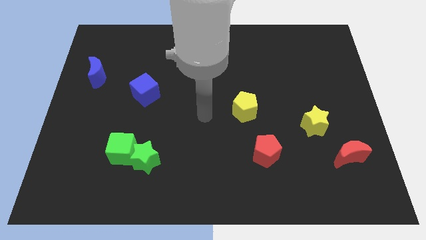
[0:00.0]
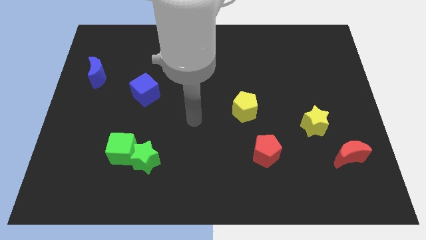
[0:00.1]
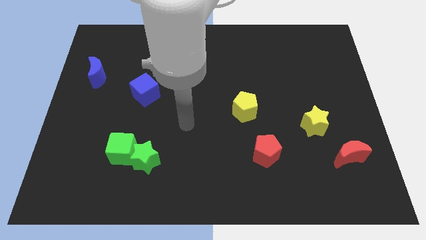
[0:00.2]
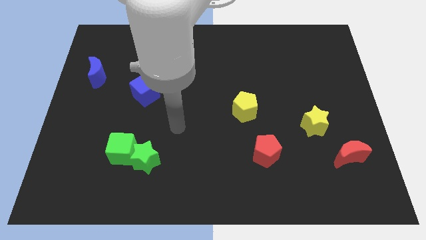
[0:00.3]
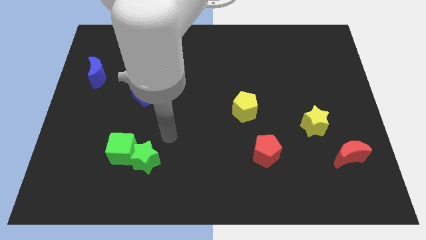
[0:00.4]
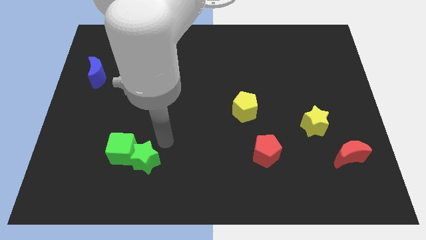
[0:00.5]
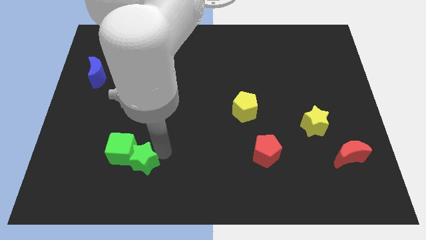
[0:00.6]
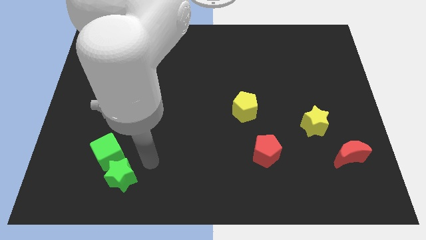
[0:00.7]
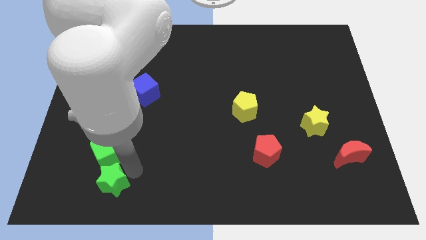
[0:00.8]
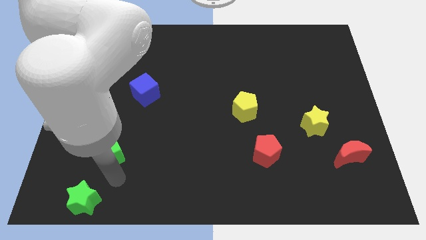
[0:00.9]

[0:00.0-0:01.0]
move the green cube away from the green star

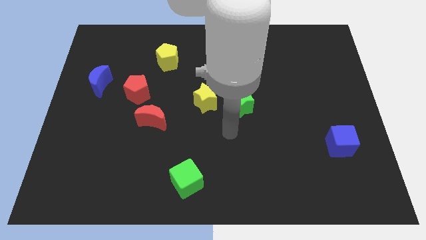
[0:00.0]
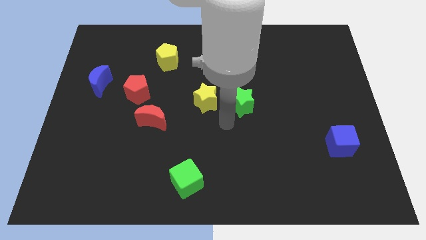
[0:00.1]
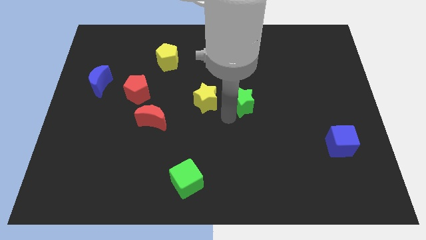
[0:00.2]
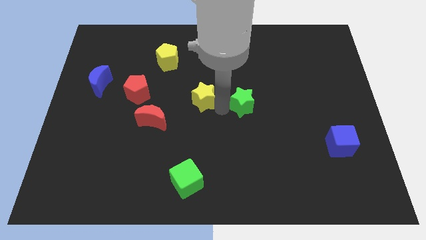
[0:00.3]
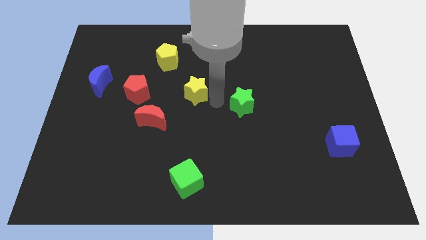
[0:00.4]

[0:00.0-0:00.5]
move the green star away from the yellow star

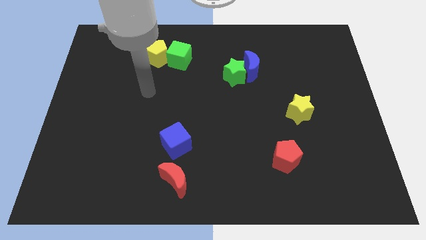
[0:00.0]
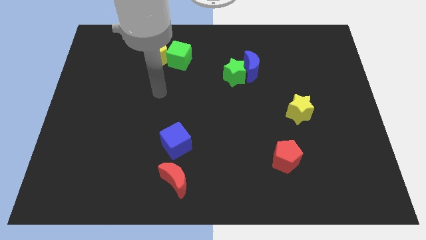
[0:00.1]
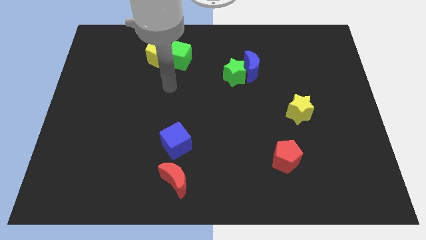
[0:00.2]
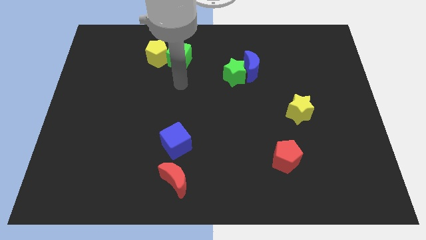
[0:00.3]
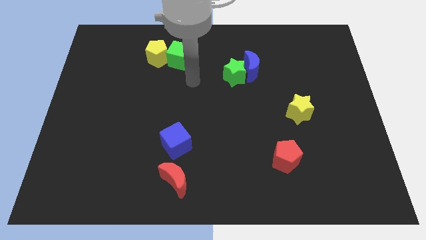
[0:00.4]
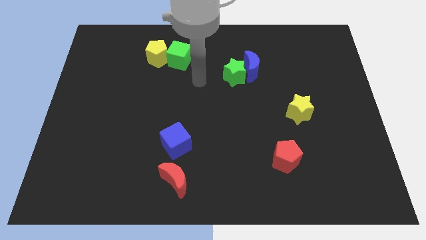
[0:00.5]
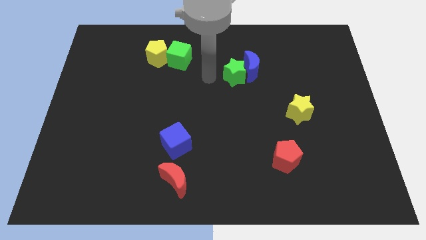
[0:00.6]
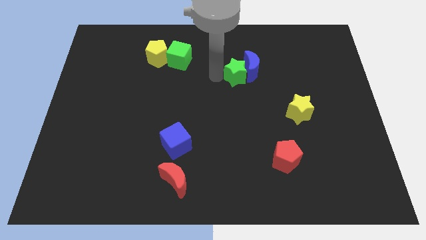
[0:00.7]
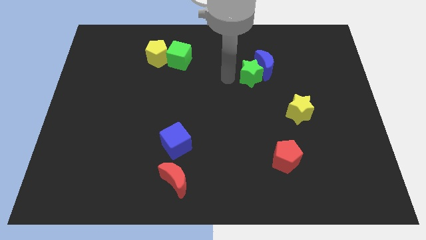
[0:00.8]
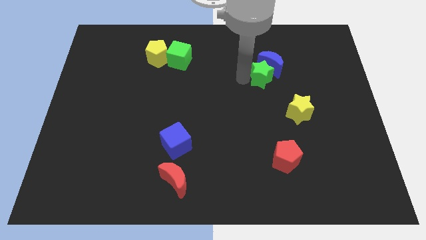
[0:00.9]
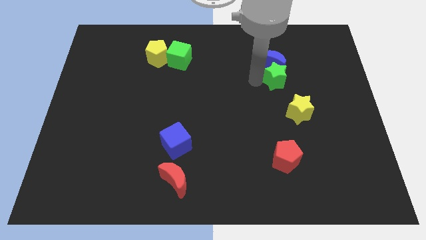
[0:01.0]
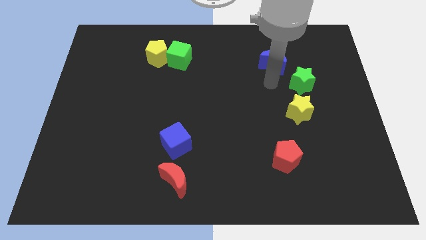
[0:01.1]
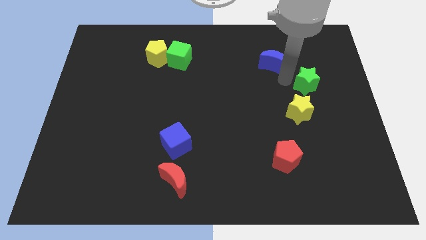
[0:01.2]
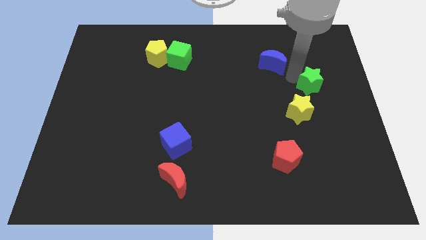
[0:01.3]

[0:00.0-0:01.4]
separate the blue moon from the green star

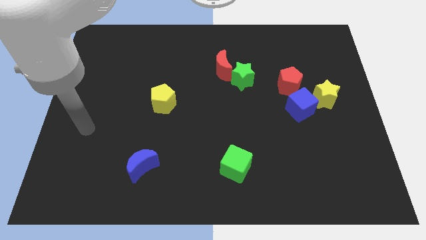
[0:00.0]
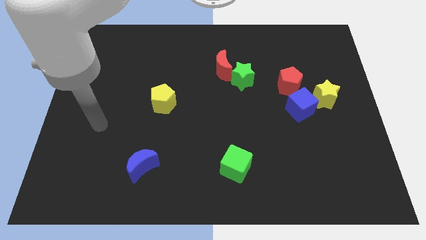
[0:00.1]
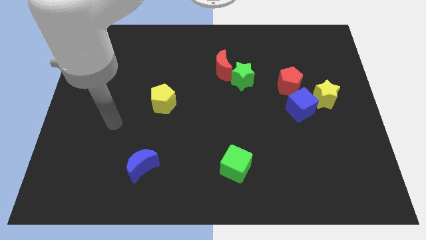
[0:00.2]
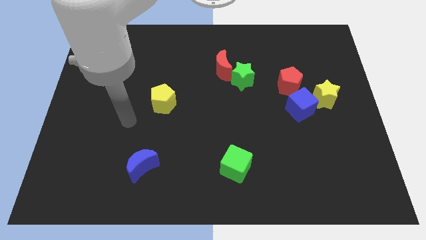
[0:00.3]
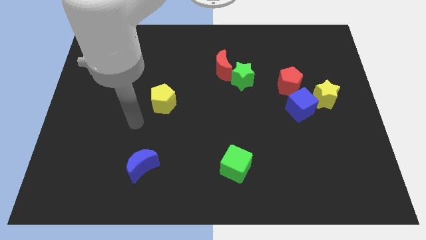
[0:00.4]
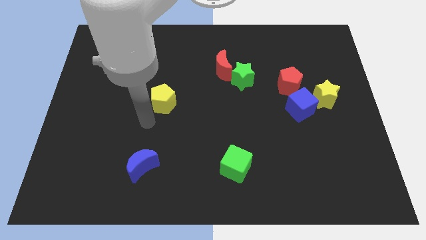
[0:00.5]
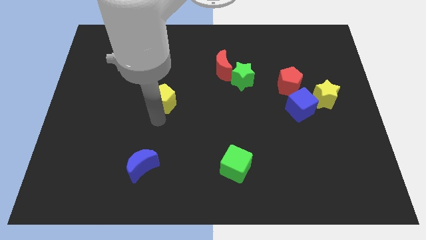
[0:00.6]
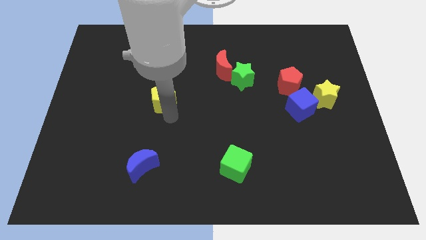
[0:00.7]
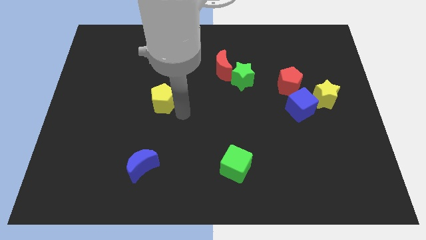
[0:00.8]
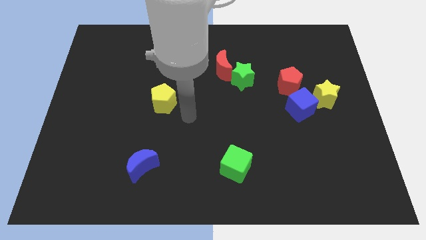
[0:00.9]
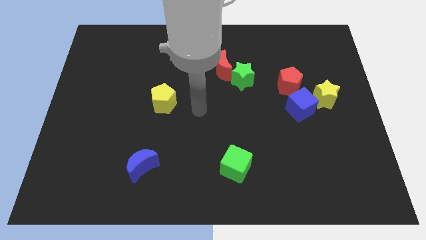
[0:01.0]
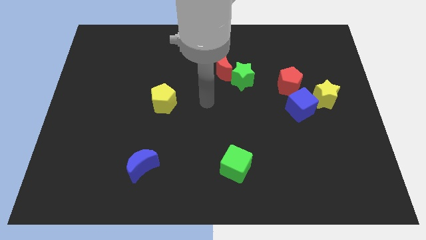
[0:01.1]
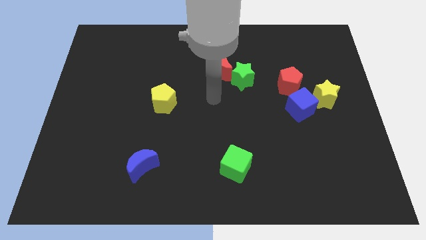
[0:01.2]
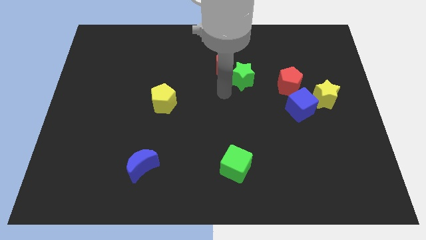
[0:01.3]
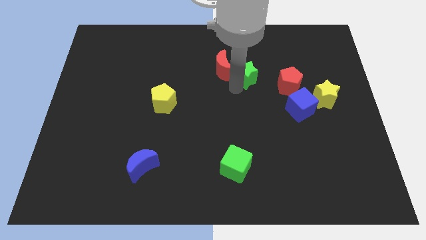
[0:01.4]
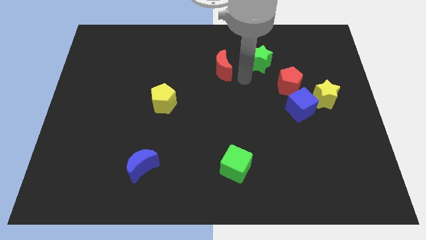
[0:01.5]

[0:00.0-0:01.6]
pull the red moon apart from the green star

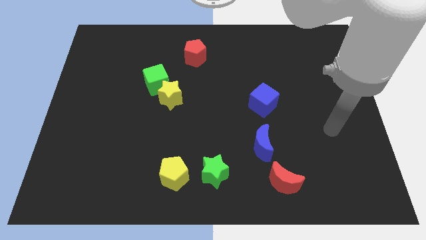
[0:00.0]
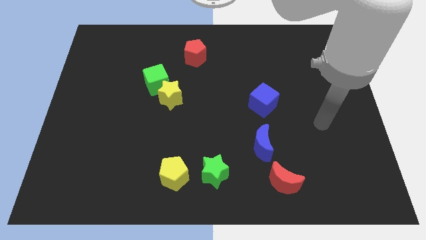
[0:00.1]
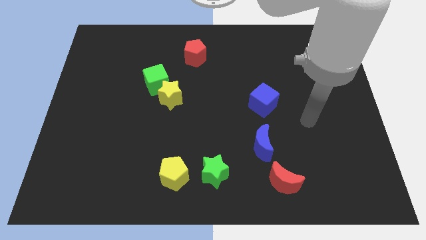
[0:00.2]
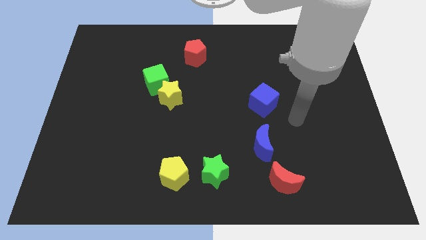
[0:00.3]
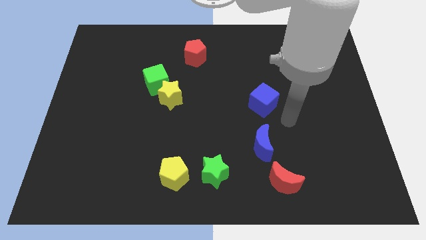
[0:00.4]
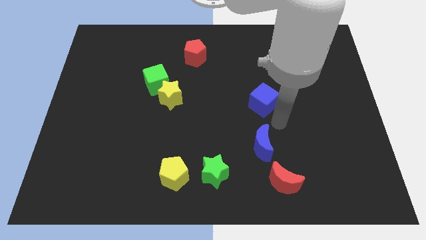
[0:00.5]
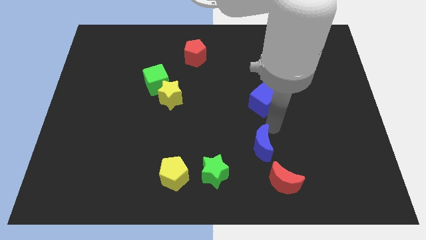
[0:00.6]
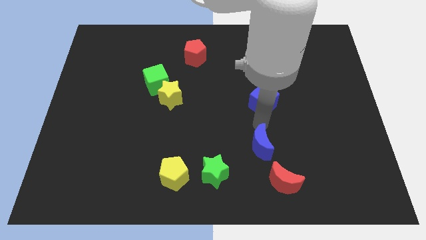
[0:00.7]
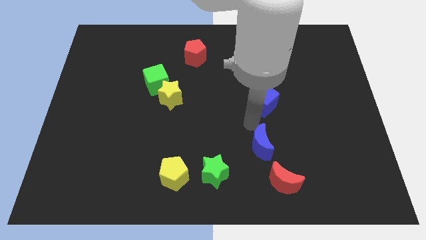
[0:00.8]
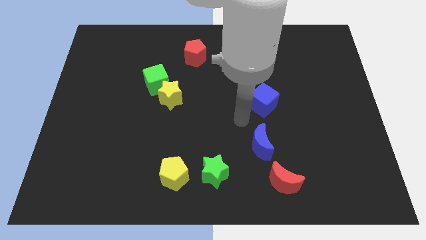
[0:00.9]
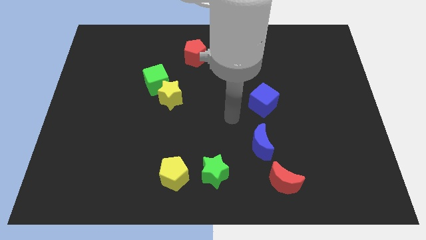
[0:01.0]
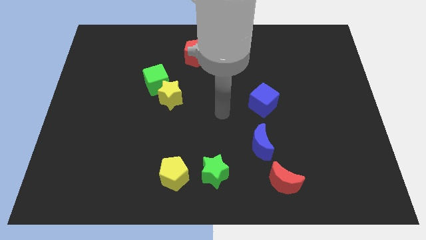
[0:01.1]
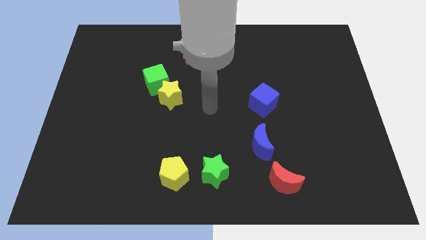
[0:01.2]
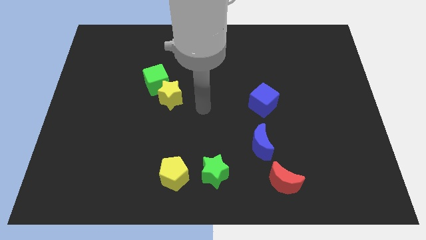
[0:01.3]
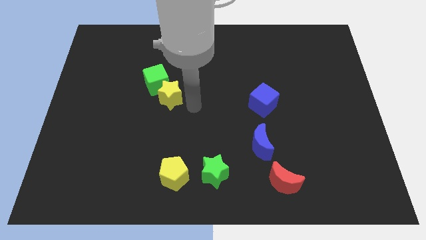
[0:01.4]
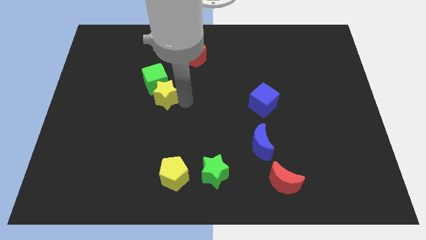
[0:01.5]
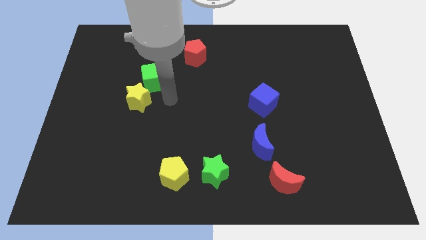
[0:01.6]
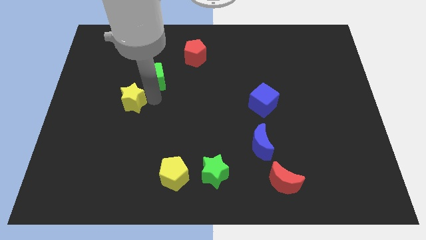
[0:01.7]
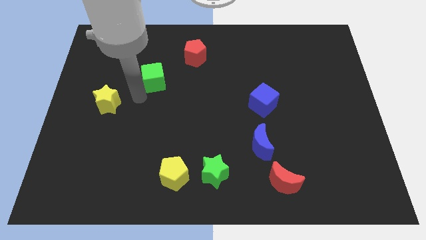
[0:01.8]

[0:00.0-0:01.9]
separate the green cube from the yellow star

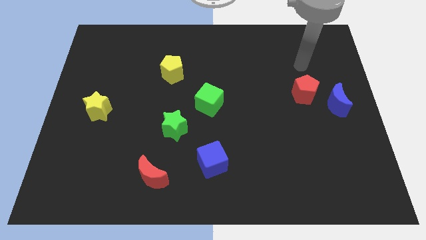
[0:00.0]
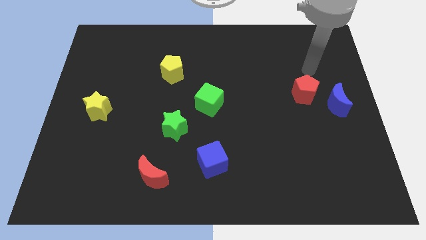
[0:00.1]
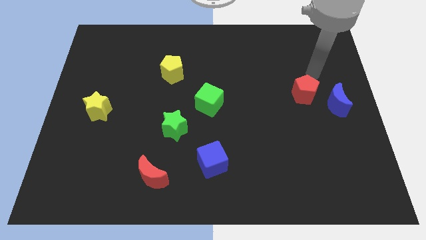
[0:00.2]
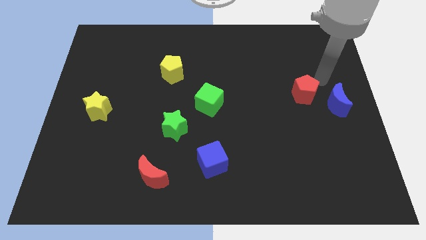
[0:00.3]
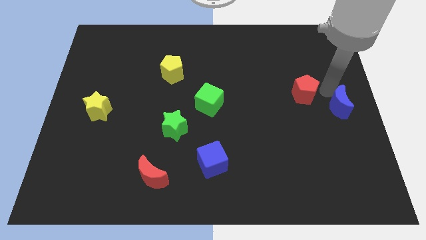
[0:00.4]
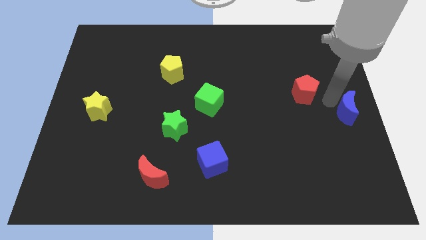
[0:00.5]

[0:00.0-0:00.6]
move the red pentagon away from the blue moon

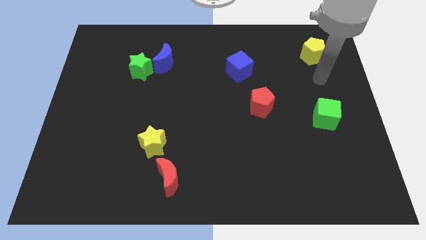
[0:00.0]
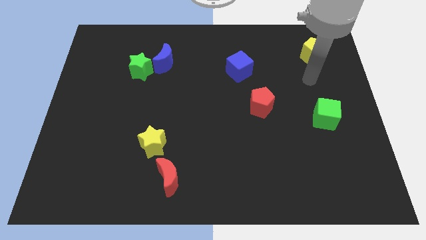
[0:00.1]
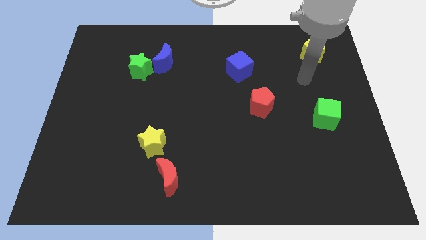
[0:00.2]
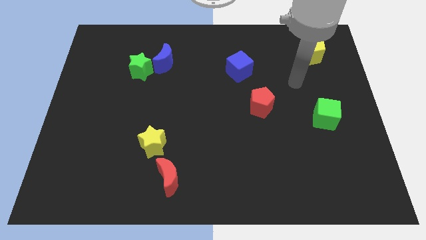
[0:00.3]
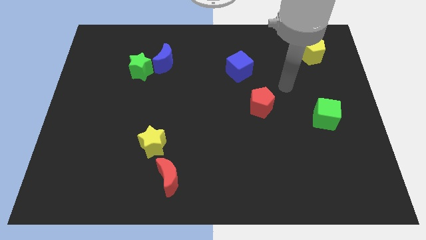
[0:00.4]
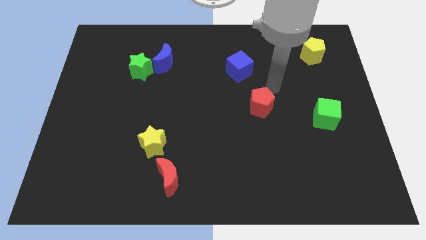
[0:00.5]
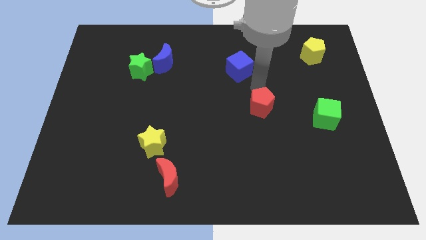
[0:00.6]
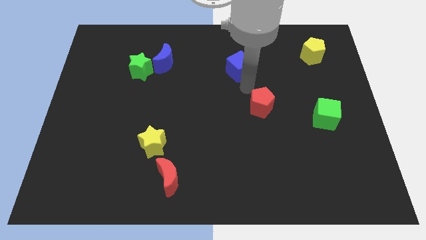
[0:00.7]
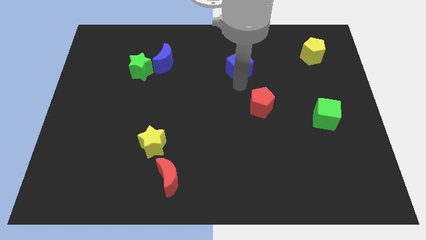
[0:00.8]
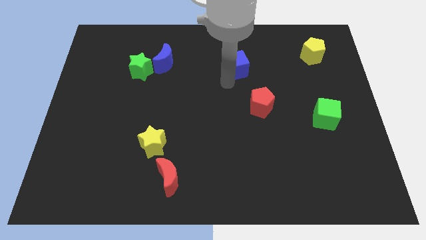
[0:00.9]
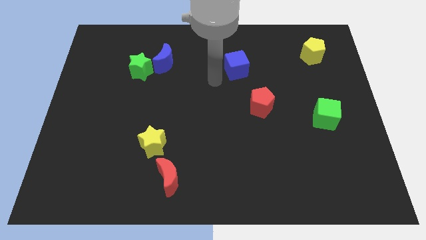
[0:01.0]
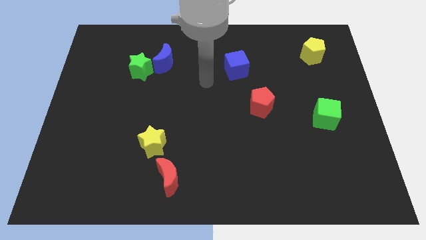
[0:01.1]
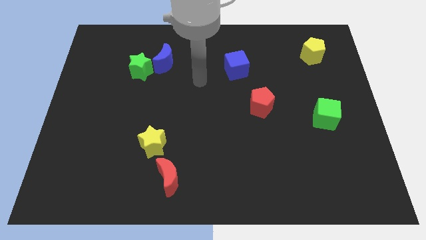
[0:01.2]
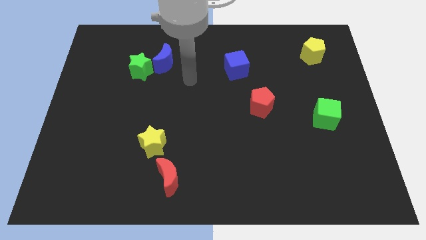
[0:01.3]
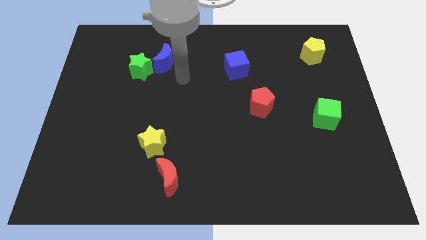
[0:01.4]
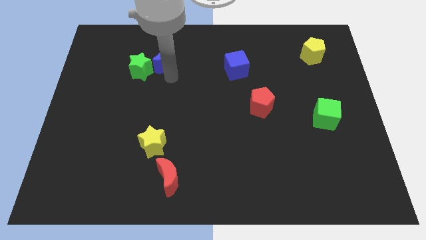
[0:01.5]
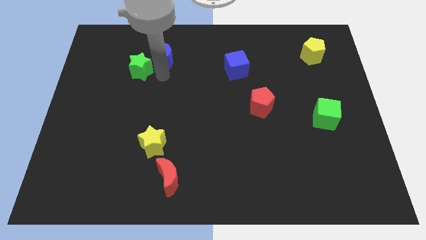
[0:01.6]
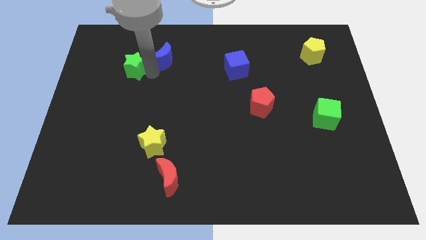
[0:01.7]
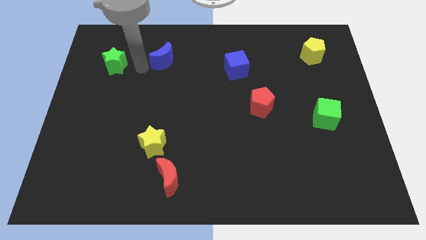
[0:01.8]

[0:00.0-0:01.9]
move the blue moon away from the green star

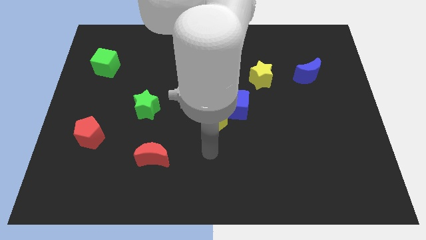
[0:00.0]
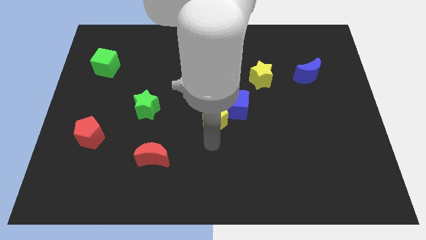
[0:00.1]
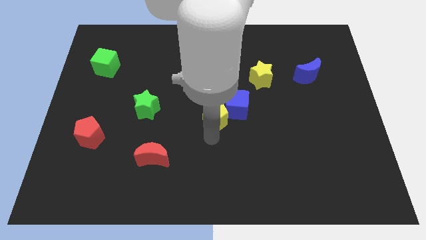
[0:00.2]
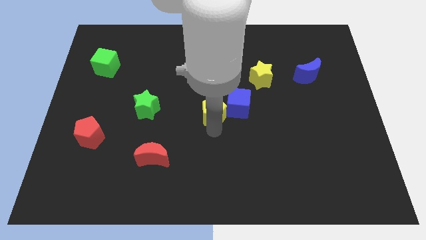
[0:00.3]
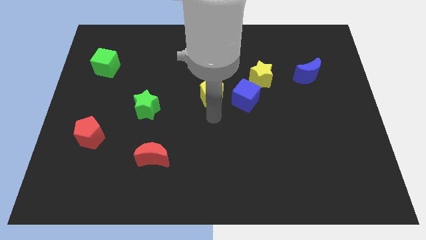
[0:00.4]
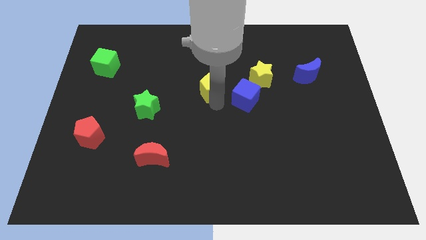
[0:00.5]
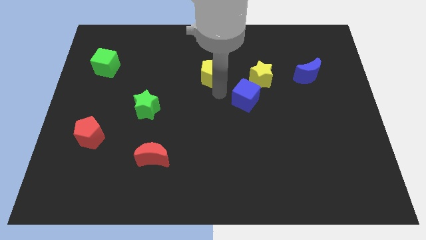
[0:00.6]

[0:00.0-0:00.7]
pull the blue cube apart from the yellow pentagon
